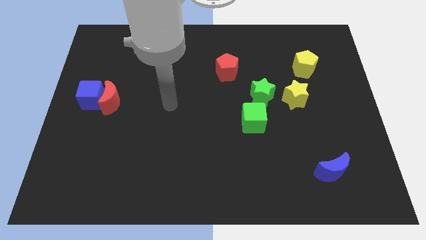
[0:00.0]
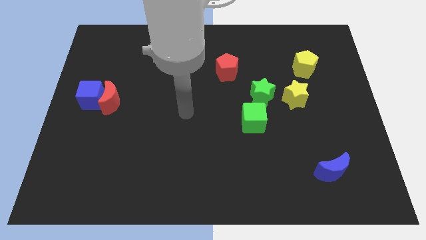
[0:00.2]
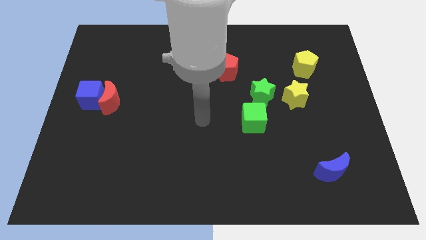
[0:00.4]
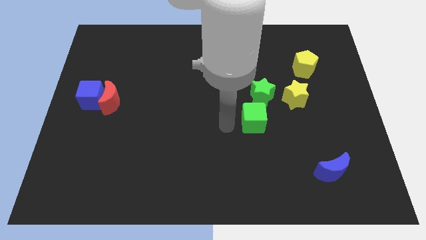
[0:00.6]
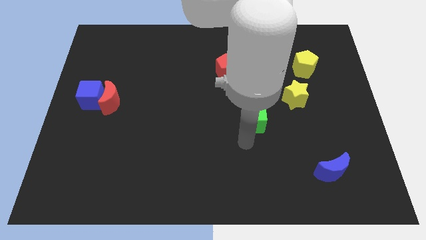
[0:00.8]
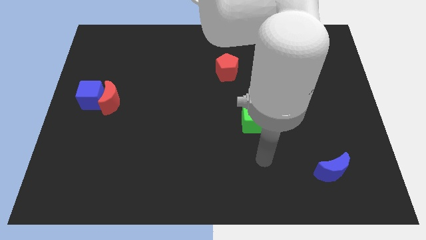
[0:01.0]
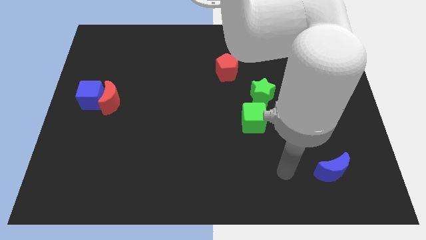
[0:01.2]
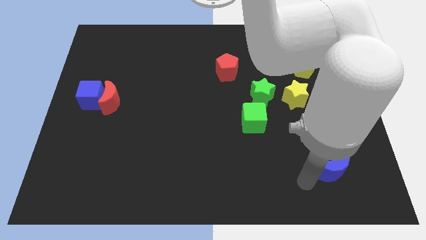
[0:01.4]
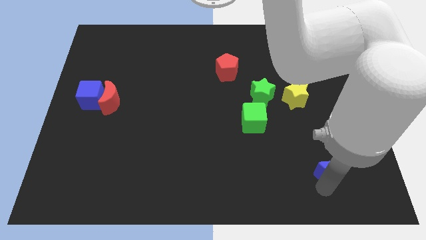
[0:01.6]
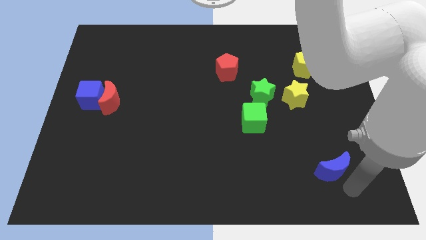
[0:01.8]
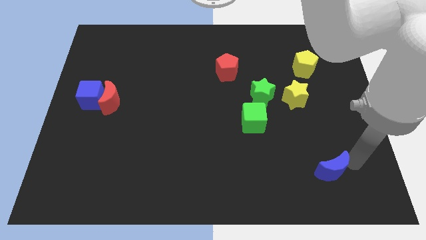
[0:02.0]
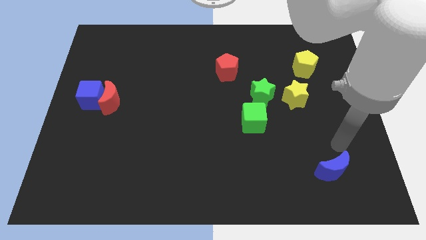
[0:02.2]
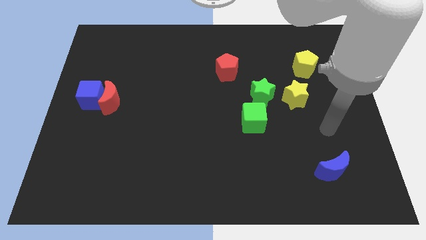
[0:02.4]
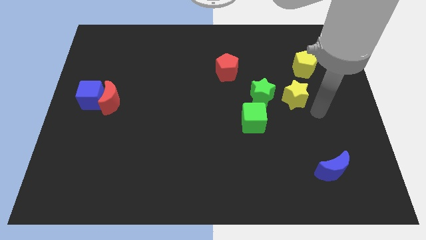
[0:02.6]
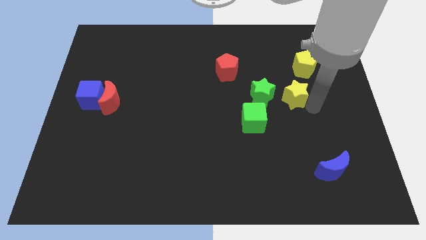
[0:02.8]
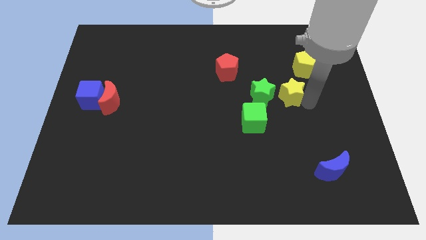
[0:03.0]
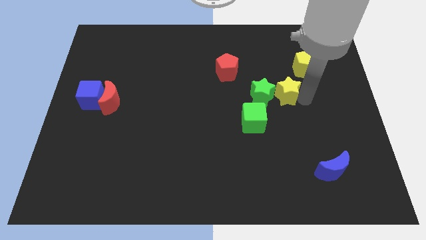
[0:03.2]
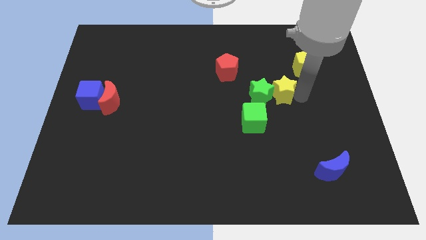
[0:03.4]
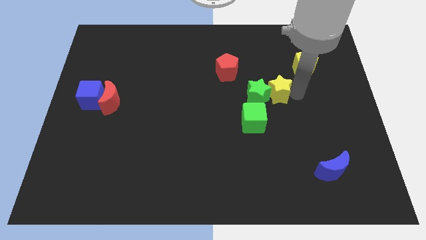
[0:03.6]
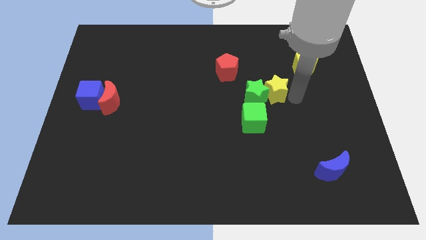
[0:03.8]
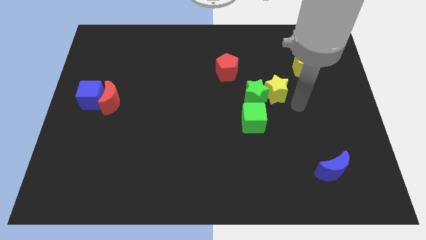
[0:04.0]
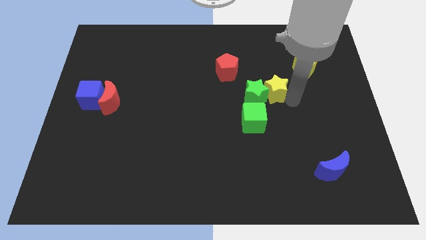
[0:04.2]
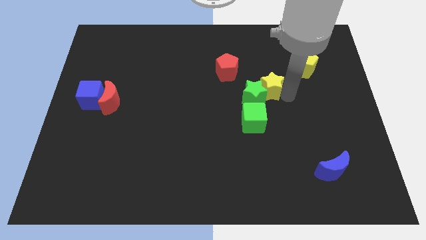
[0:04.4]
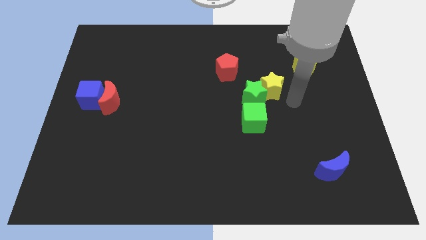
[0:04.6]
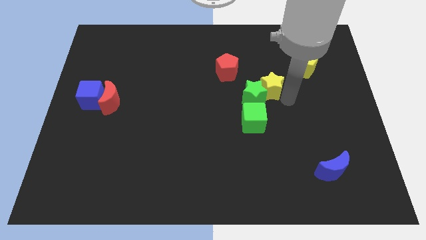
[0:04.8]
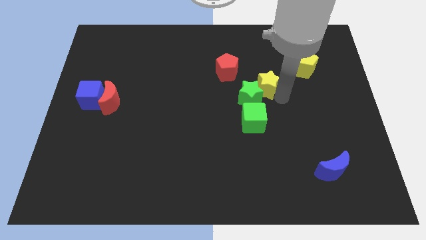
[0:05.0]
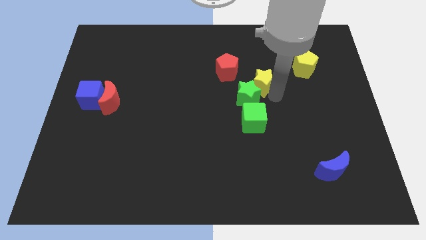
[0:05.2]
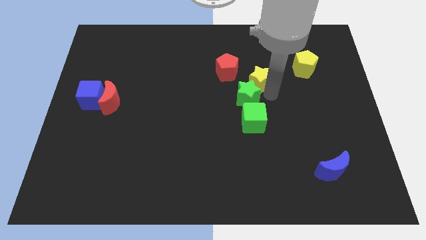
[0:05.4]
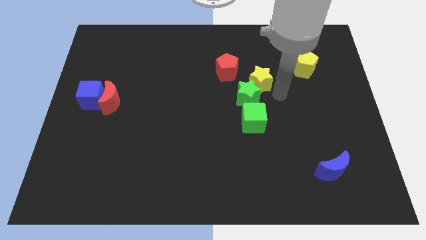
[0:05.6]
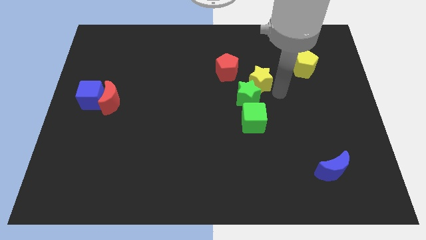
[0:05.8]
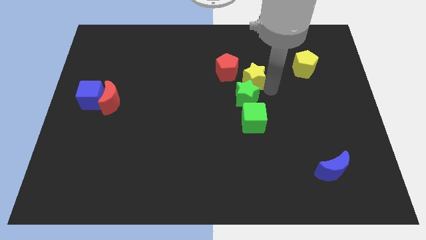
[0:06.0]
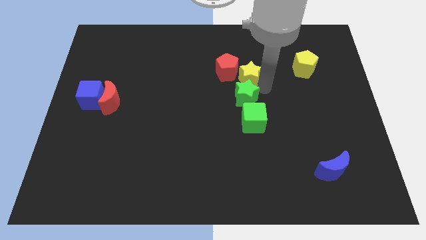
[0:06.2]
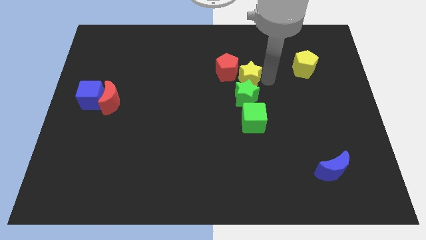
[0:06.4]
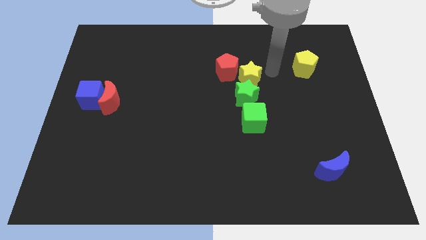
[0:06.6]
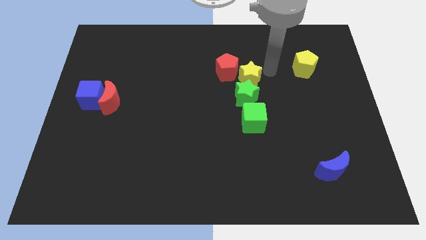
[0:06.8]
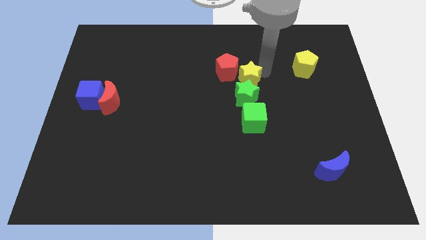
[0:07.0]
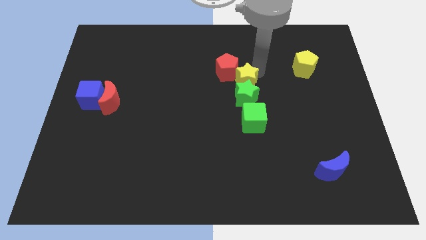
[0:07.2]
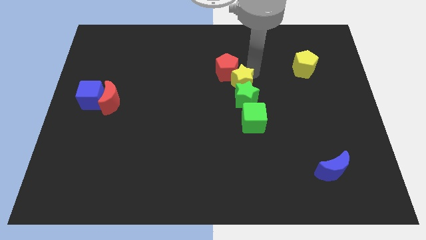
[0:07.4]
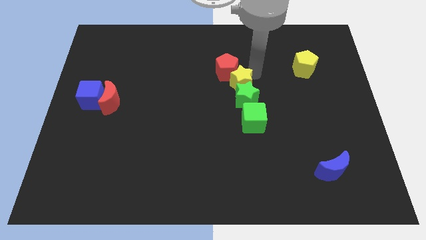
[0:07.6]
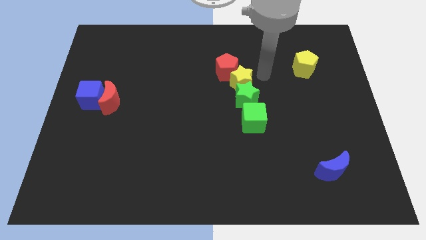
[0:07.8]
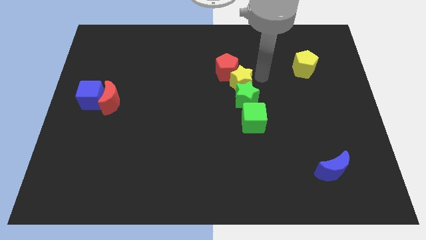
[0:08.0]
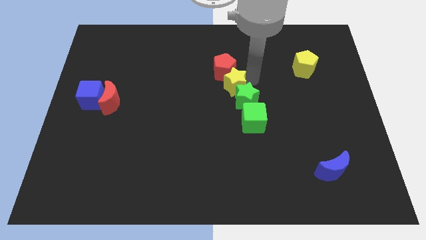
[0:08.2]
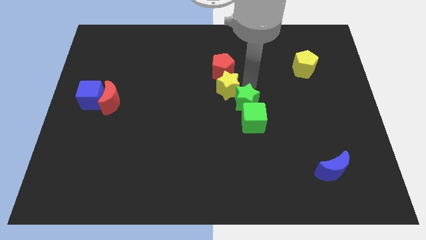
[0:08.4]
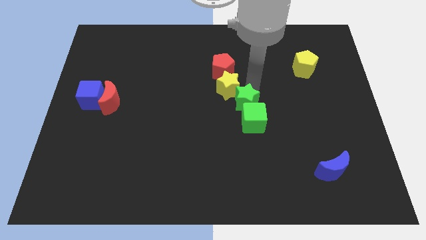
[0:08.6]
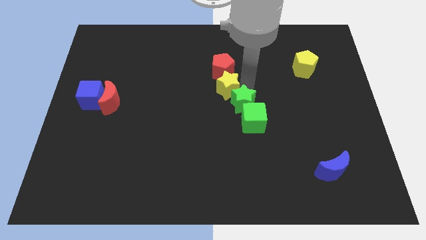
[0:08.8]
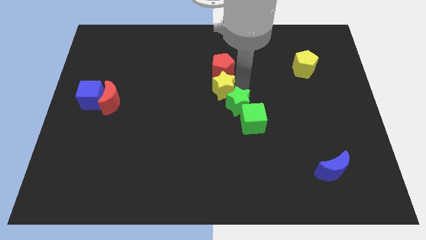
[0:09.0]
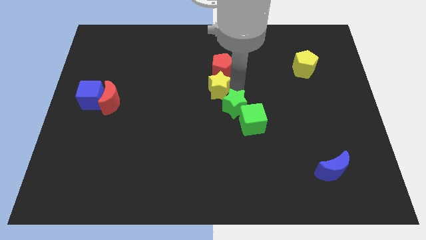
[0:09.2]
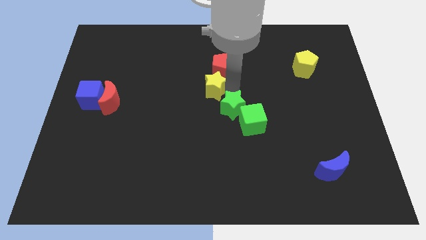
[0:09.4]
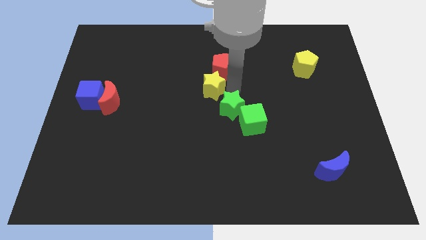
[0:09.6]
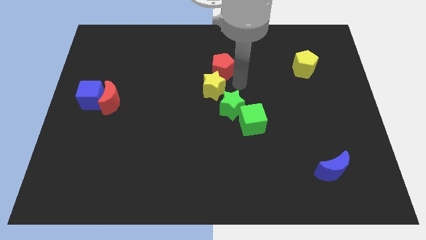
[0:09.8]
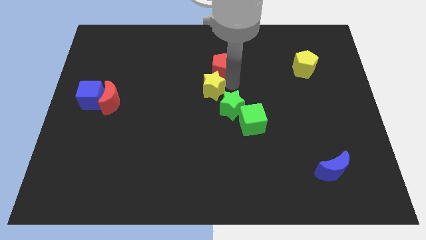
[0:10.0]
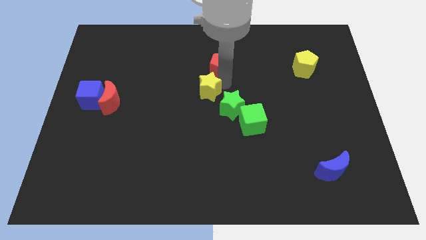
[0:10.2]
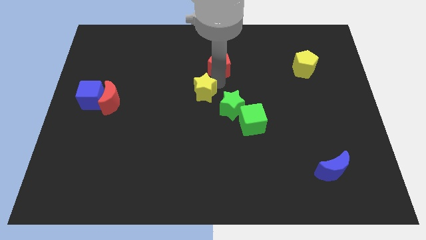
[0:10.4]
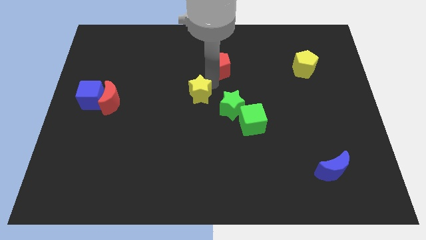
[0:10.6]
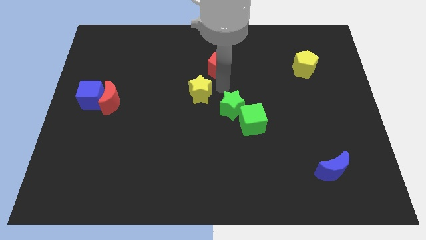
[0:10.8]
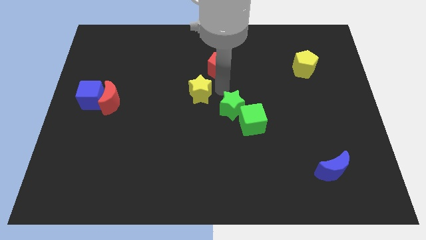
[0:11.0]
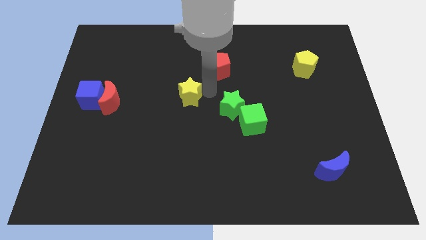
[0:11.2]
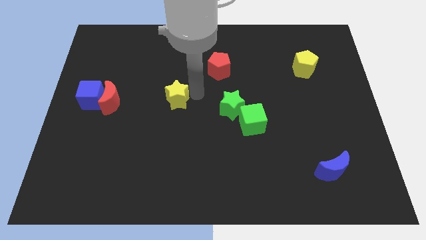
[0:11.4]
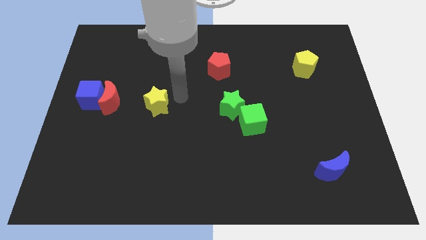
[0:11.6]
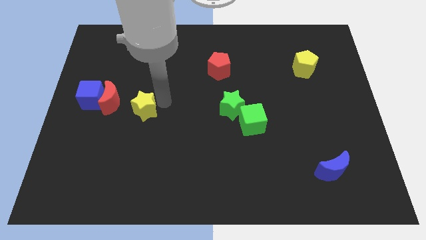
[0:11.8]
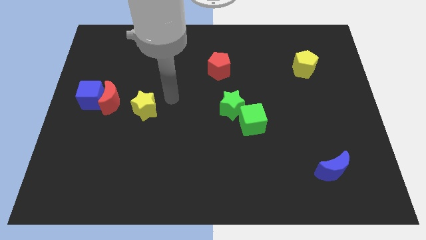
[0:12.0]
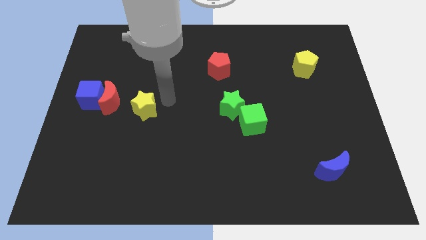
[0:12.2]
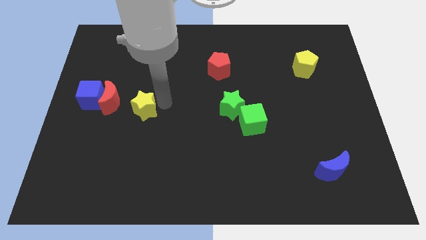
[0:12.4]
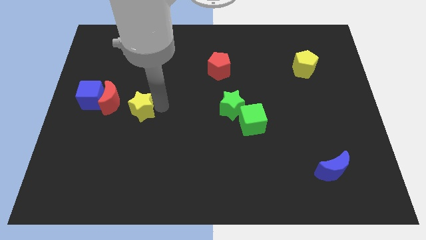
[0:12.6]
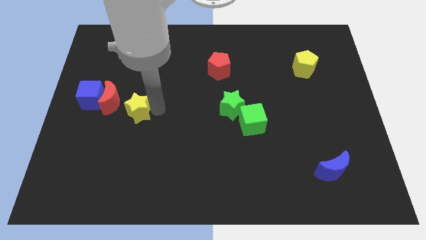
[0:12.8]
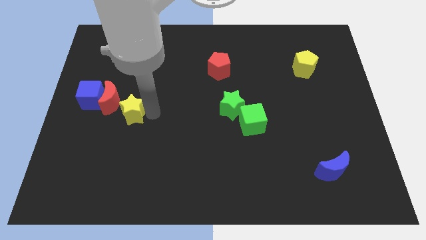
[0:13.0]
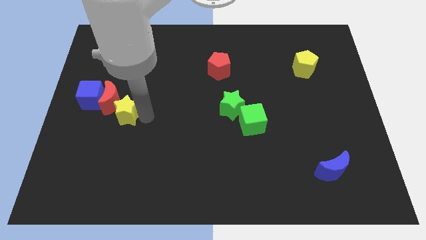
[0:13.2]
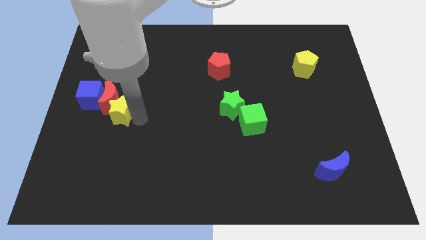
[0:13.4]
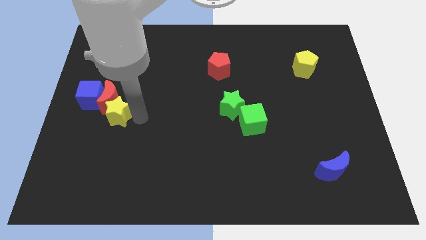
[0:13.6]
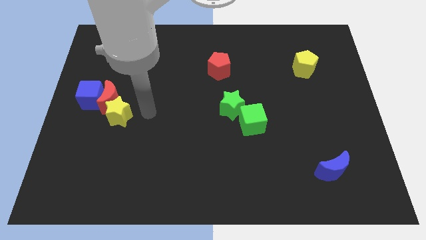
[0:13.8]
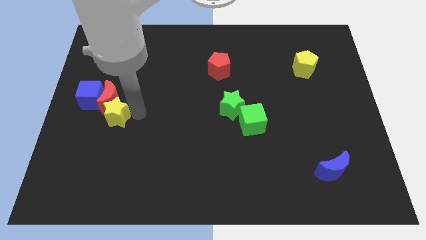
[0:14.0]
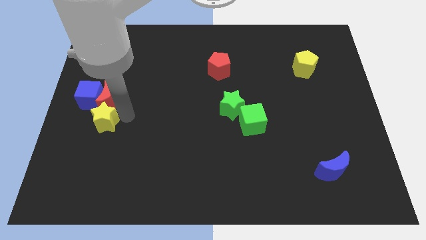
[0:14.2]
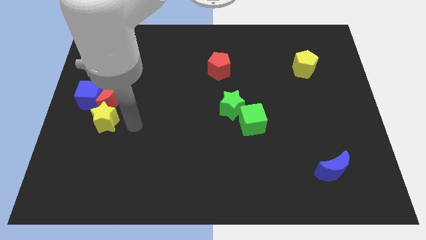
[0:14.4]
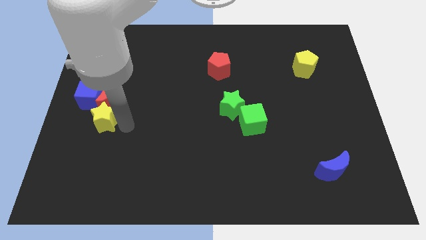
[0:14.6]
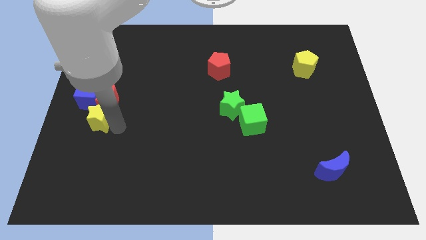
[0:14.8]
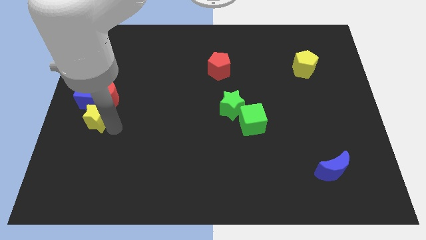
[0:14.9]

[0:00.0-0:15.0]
move the yellow star to the left side of the board
